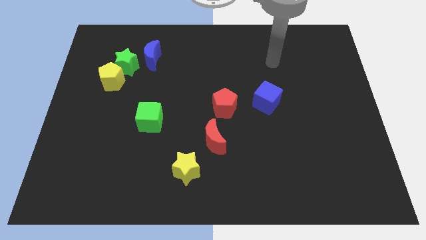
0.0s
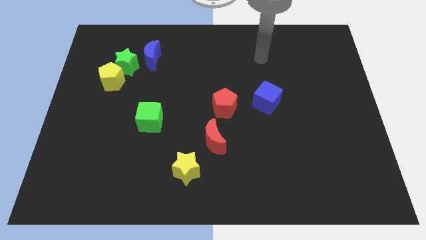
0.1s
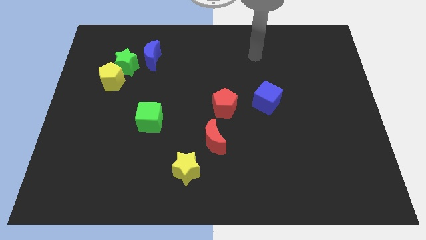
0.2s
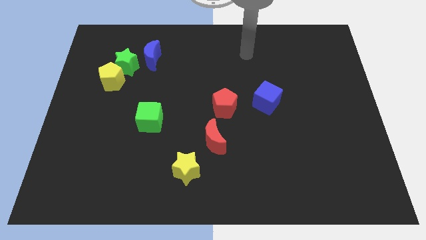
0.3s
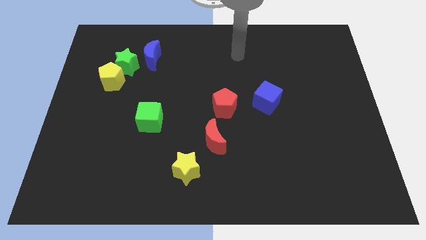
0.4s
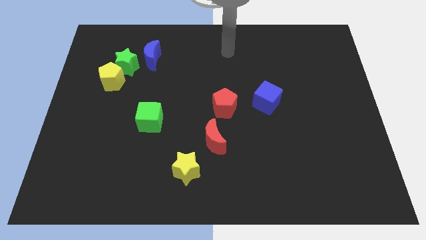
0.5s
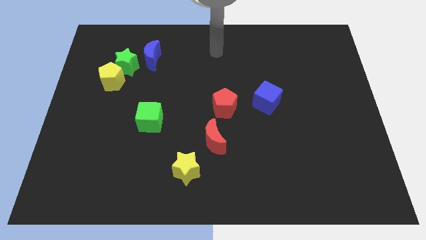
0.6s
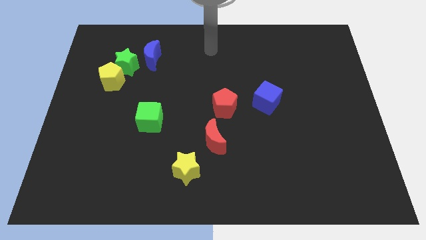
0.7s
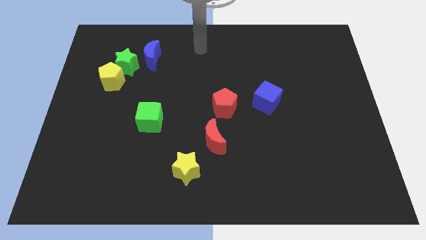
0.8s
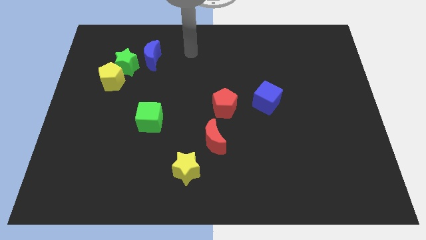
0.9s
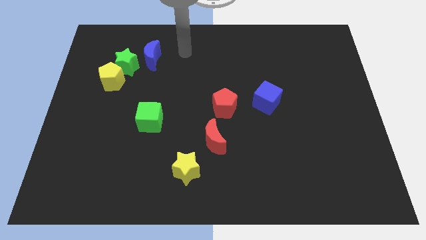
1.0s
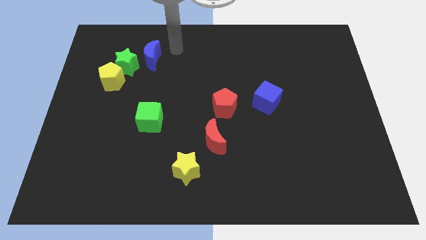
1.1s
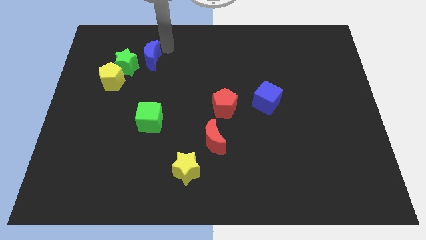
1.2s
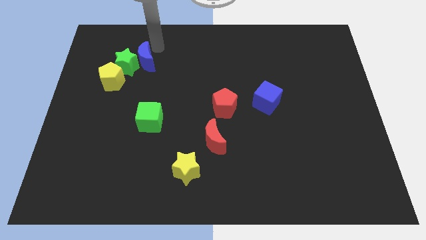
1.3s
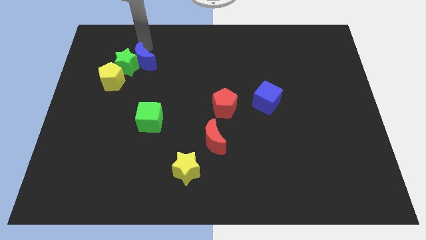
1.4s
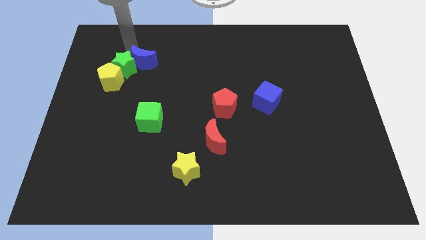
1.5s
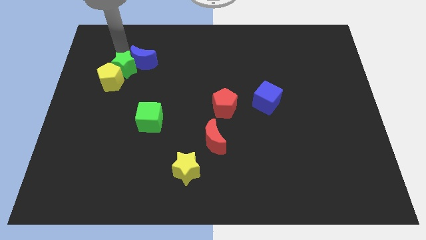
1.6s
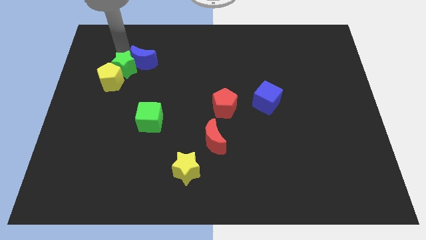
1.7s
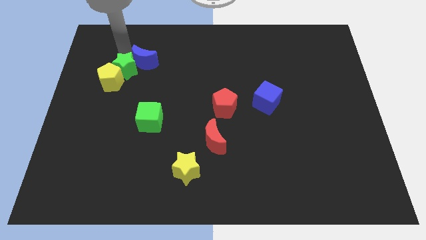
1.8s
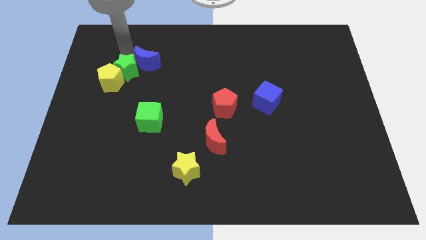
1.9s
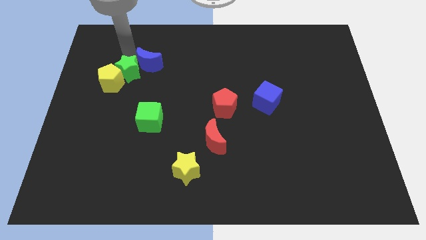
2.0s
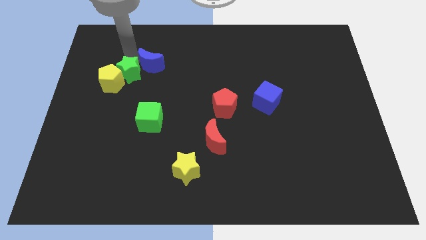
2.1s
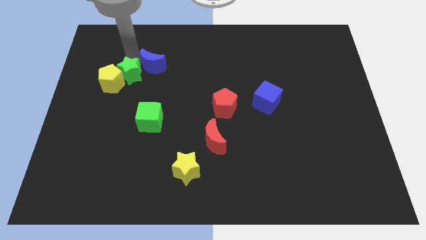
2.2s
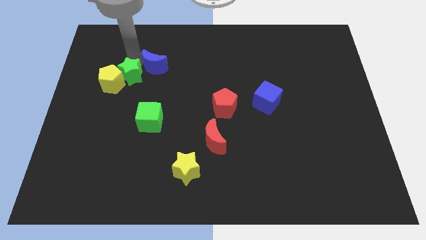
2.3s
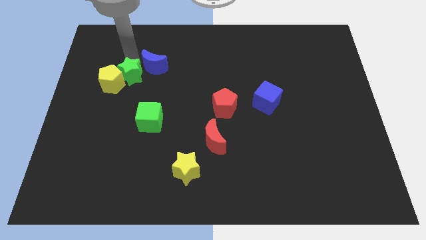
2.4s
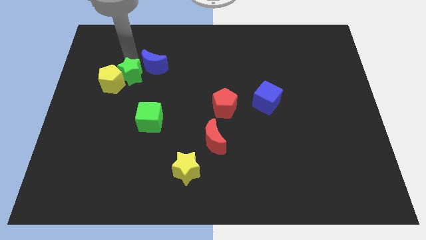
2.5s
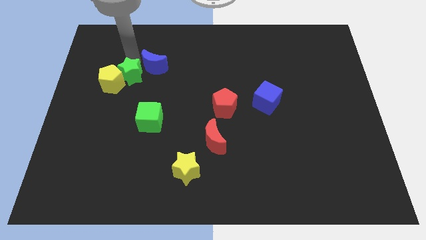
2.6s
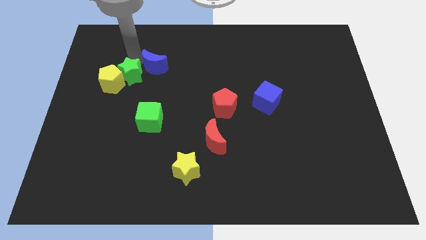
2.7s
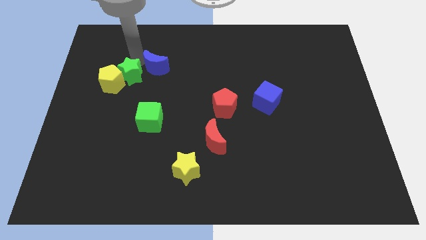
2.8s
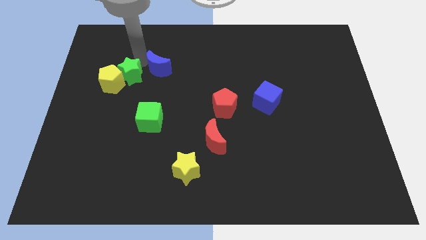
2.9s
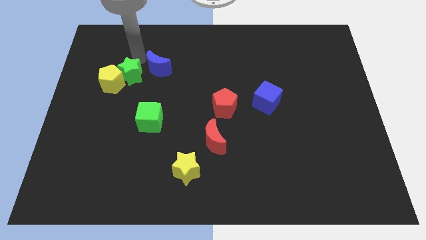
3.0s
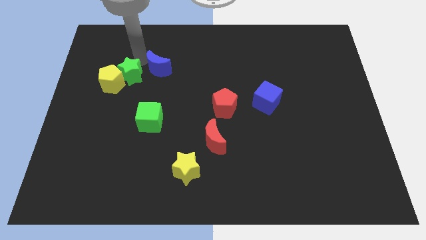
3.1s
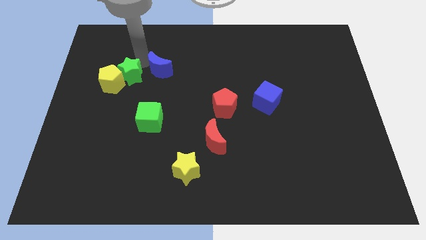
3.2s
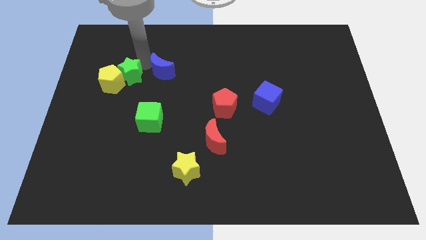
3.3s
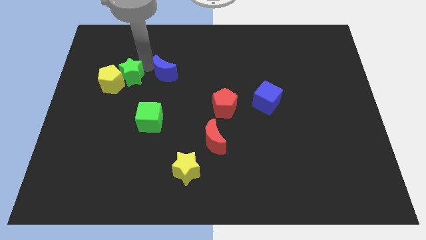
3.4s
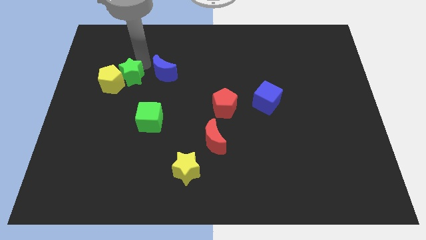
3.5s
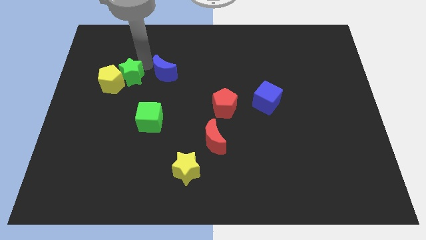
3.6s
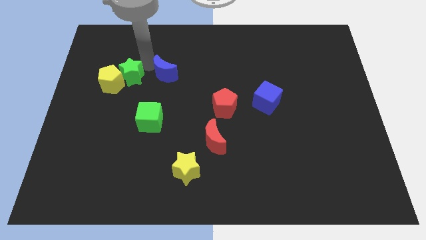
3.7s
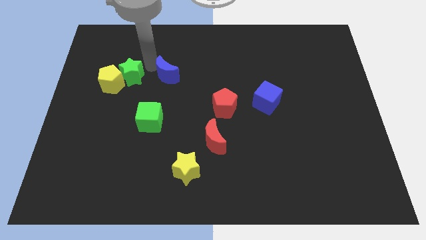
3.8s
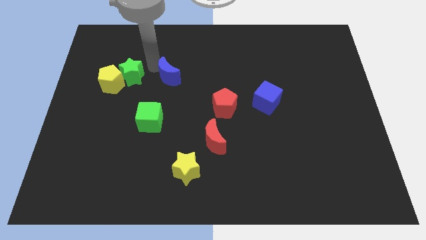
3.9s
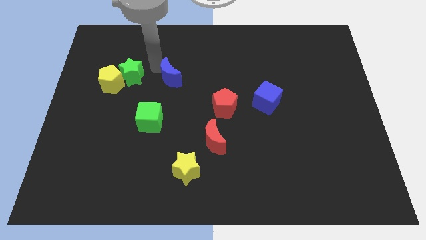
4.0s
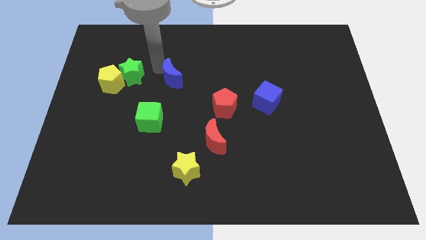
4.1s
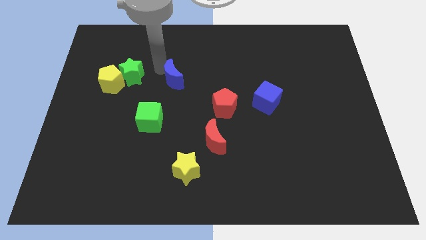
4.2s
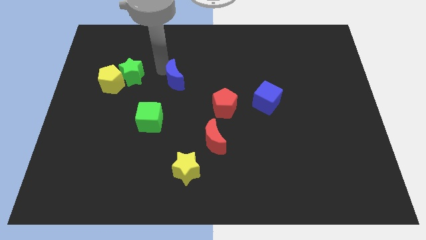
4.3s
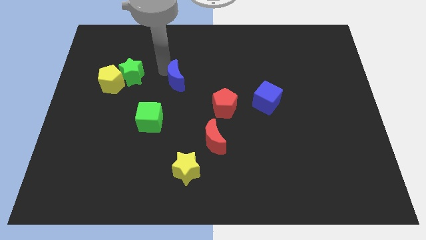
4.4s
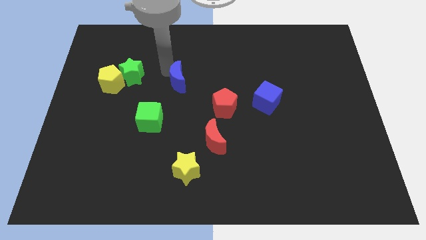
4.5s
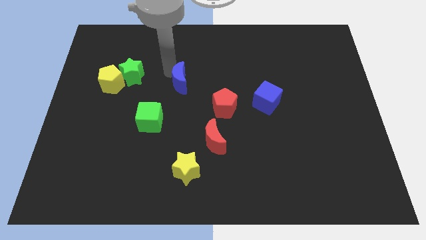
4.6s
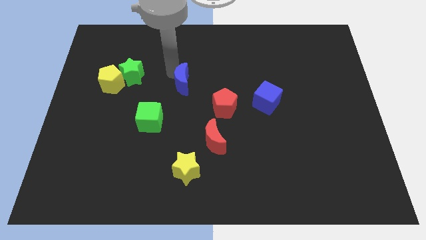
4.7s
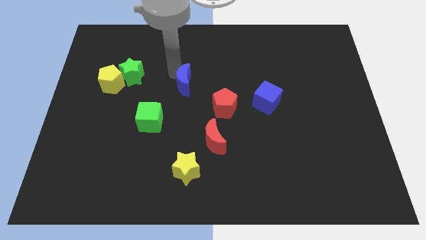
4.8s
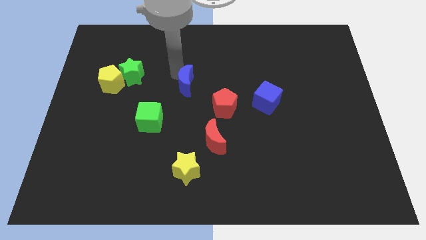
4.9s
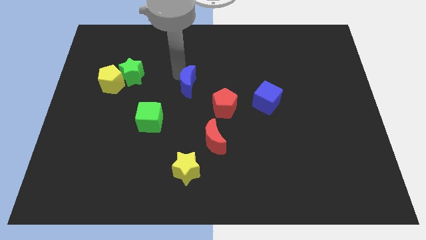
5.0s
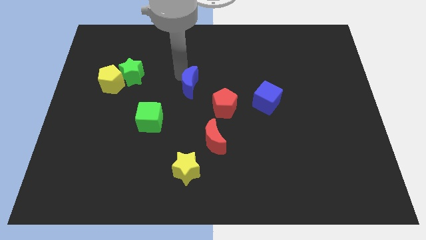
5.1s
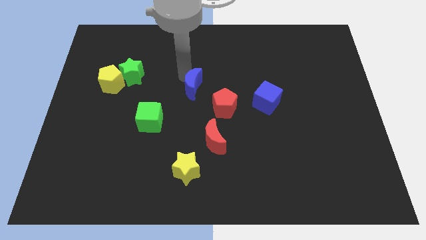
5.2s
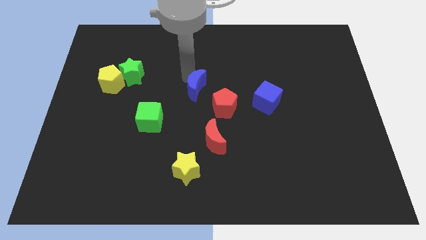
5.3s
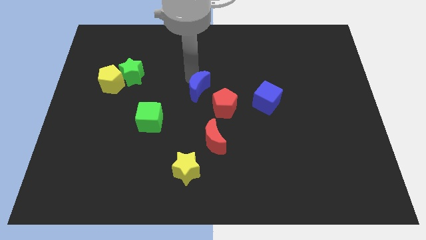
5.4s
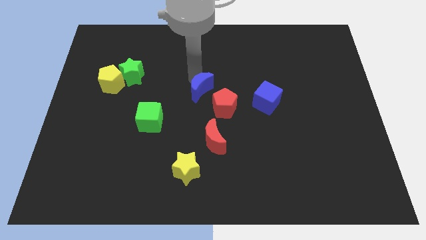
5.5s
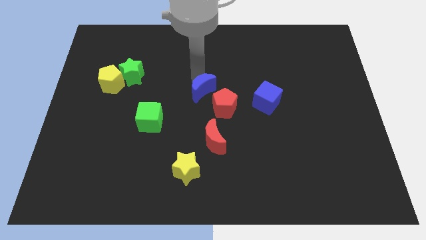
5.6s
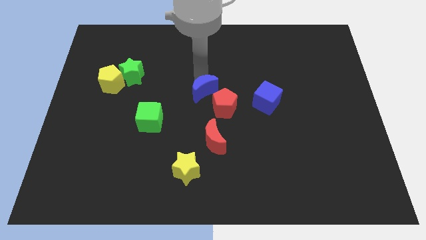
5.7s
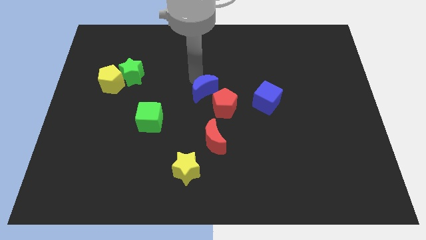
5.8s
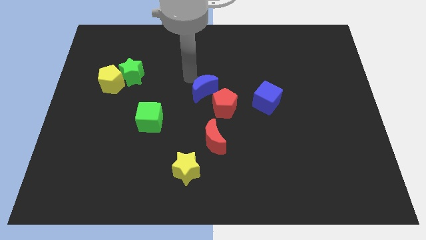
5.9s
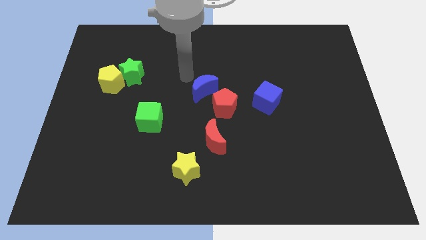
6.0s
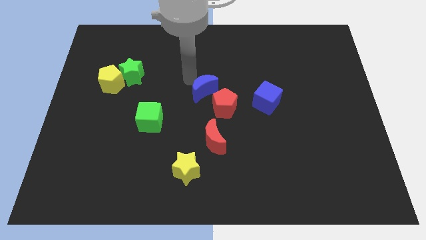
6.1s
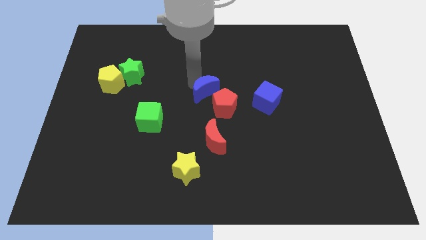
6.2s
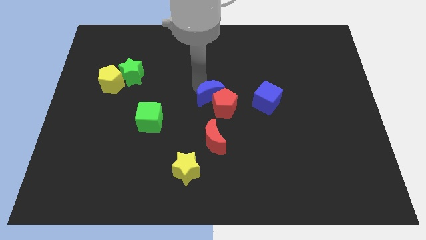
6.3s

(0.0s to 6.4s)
put the blue moon next to the red pentagon

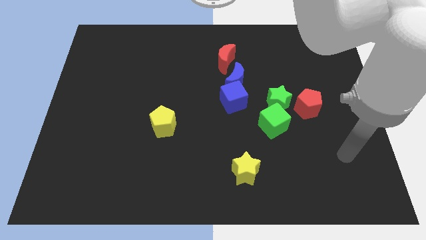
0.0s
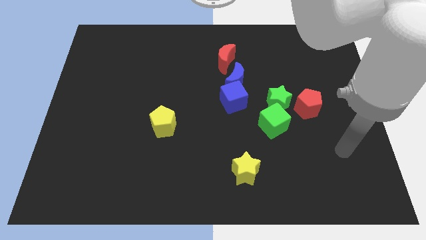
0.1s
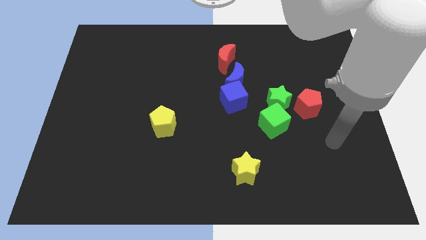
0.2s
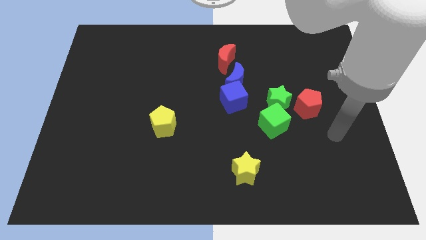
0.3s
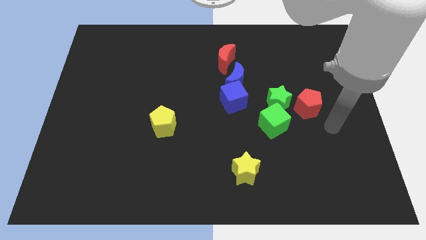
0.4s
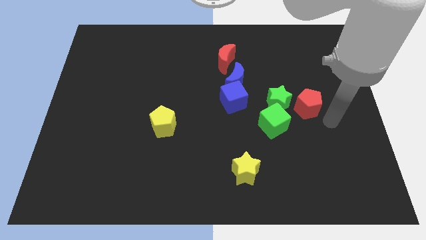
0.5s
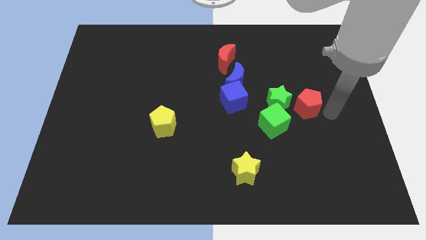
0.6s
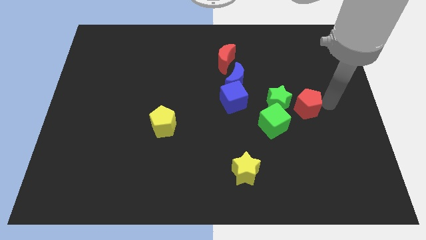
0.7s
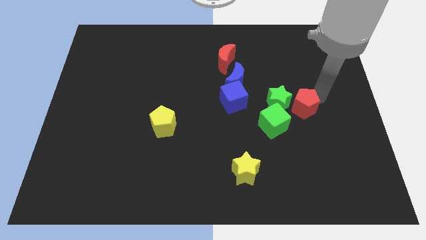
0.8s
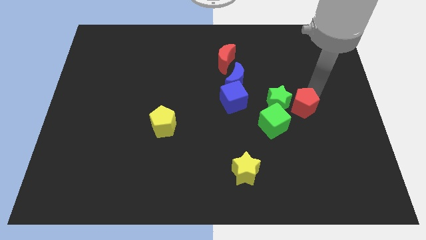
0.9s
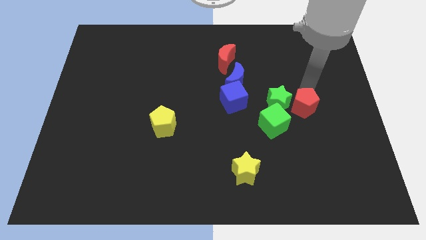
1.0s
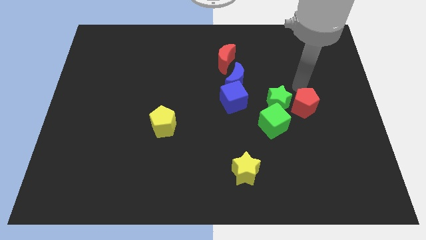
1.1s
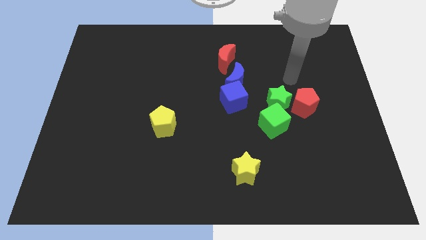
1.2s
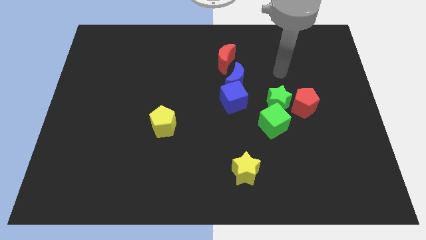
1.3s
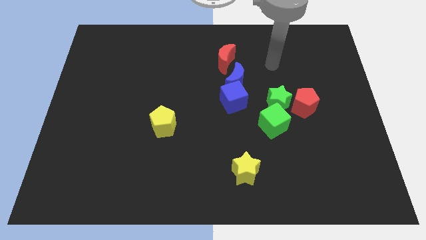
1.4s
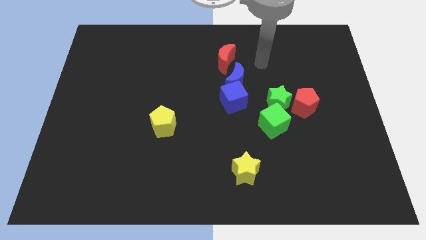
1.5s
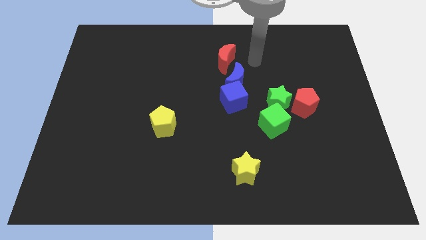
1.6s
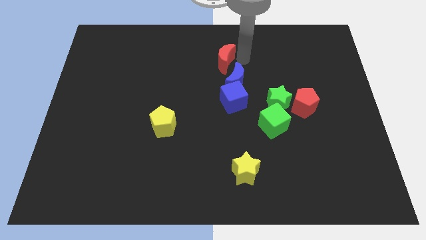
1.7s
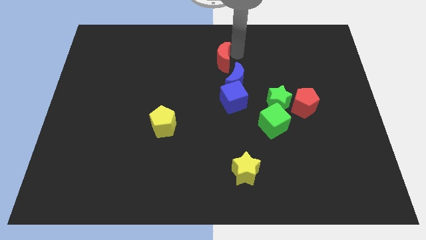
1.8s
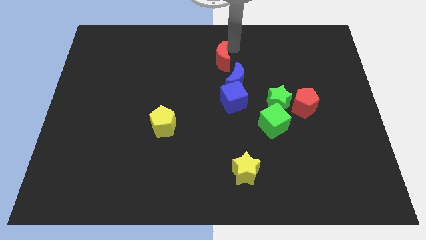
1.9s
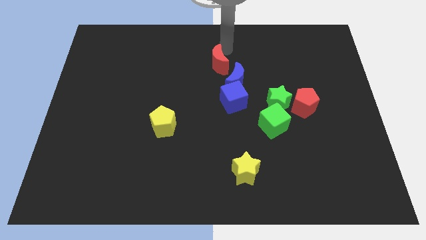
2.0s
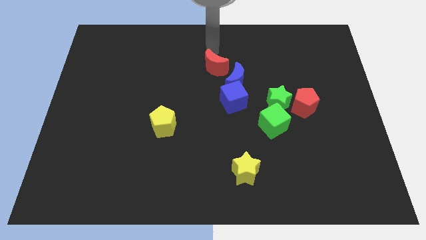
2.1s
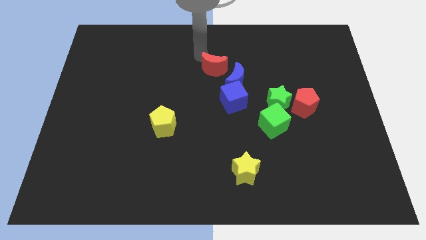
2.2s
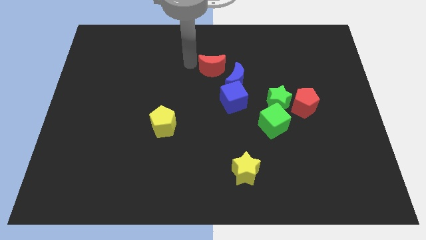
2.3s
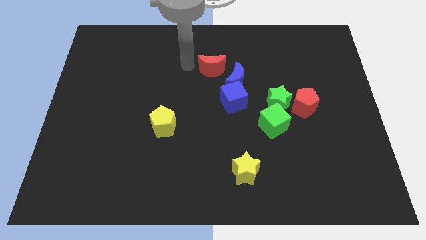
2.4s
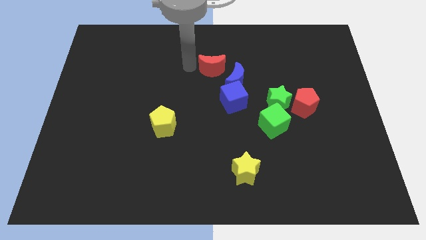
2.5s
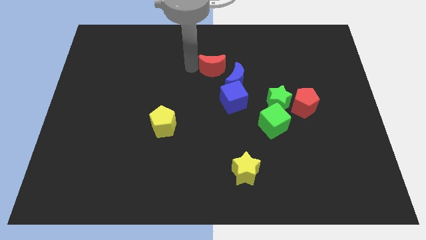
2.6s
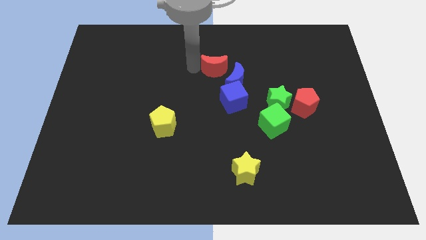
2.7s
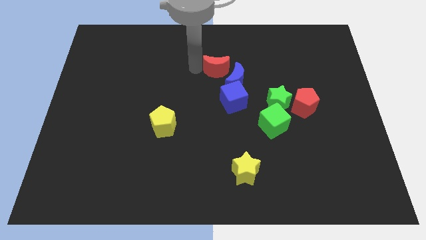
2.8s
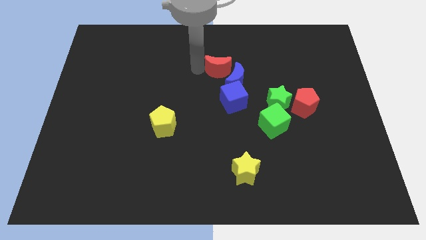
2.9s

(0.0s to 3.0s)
put the red moon to the blue moon
